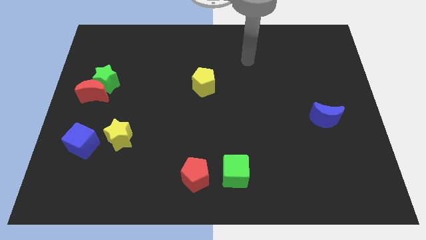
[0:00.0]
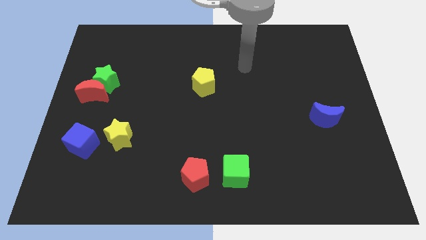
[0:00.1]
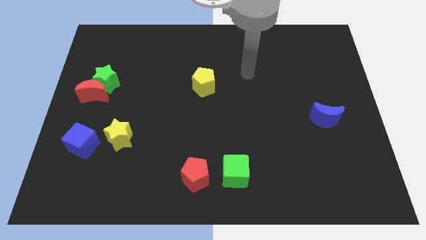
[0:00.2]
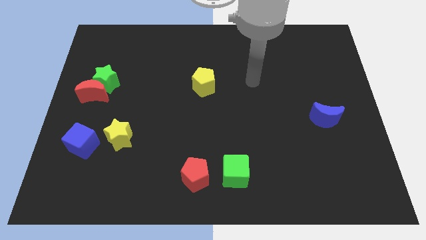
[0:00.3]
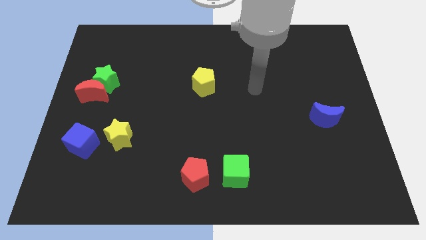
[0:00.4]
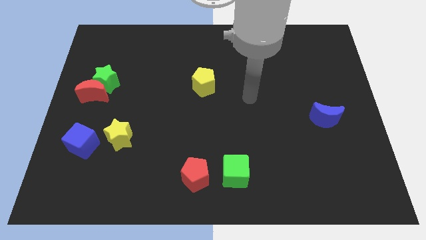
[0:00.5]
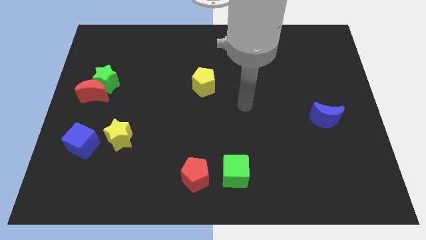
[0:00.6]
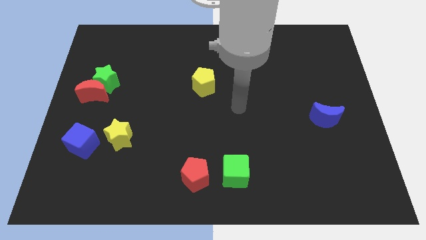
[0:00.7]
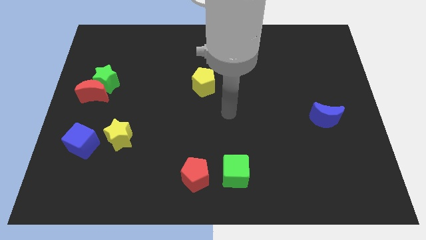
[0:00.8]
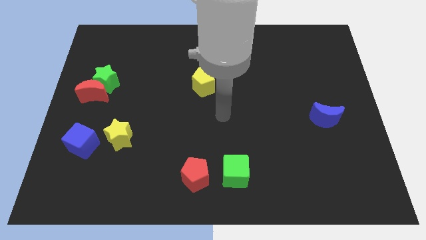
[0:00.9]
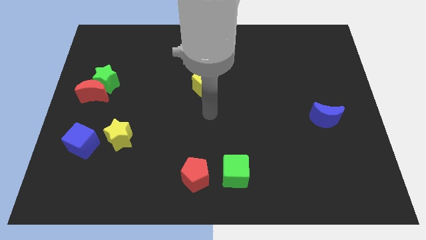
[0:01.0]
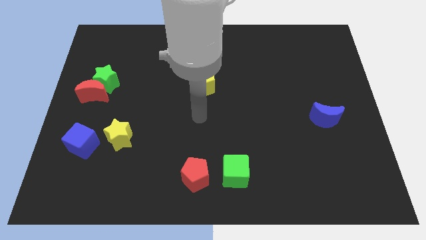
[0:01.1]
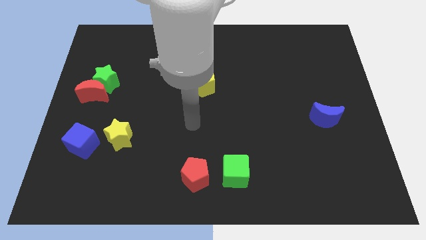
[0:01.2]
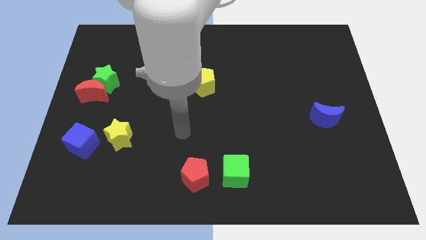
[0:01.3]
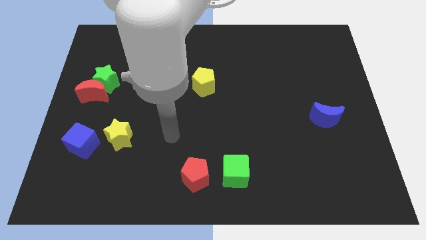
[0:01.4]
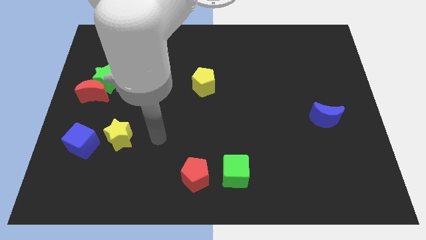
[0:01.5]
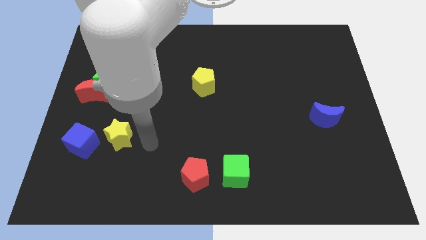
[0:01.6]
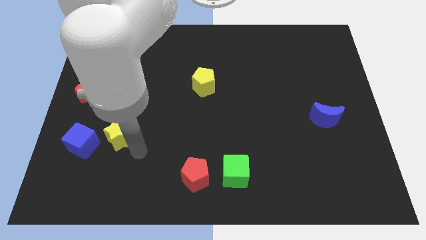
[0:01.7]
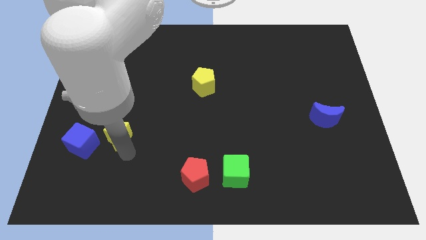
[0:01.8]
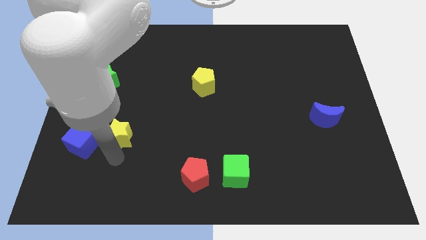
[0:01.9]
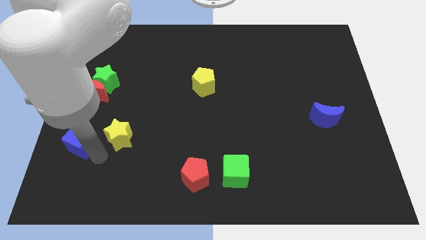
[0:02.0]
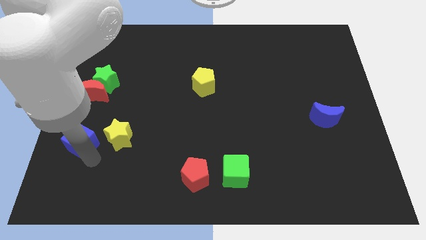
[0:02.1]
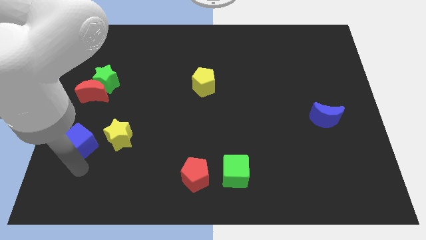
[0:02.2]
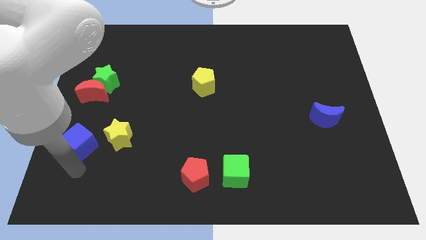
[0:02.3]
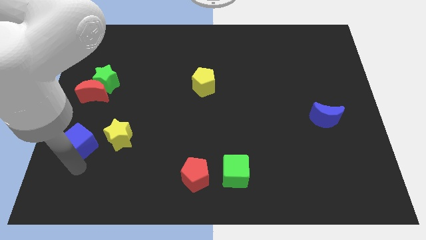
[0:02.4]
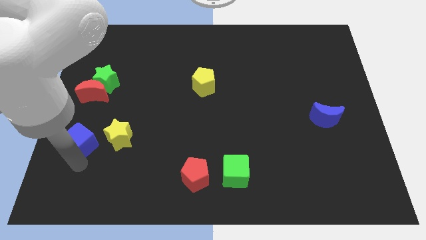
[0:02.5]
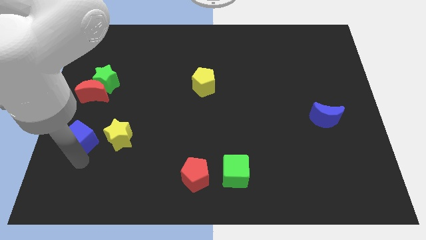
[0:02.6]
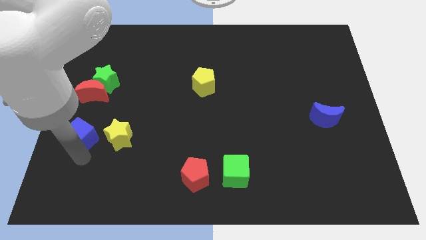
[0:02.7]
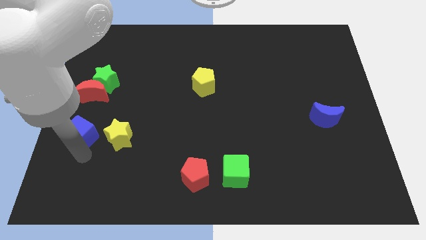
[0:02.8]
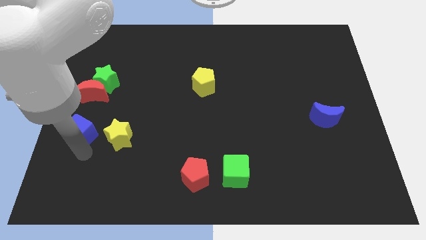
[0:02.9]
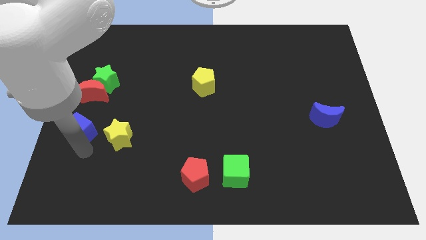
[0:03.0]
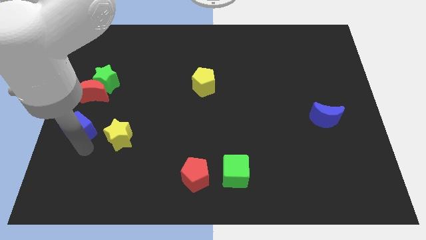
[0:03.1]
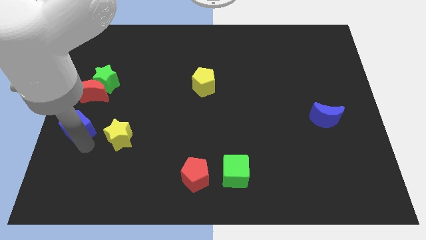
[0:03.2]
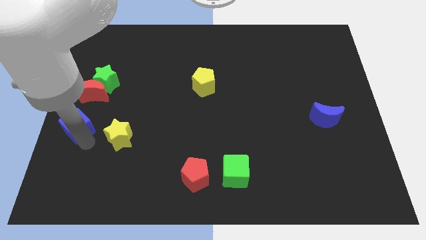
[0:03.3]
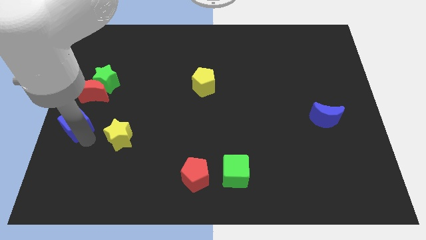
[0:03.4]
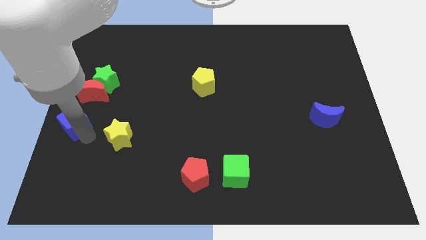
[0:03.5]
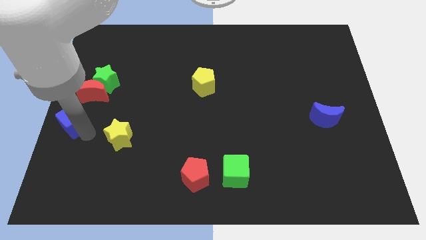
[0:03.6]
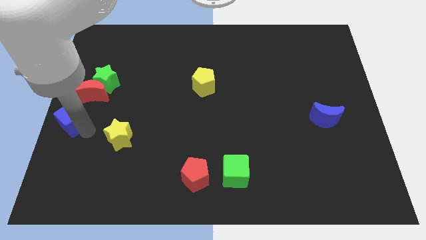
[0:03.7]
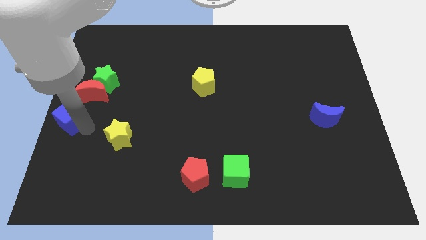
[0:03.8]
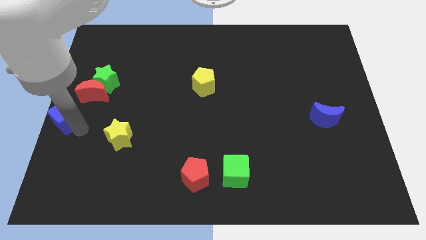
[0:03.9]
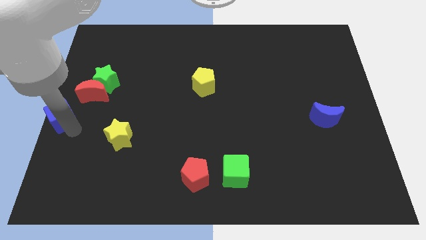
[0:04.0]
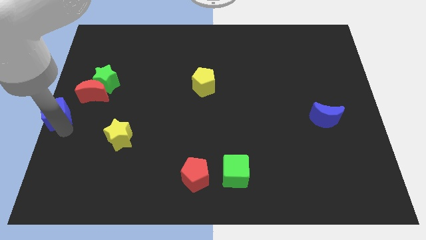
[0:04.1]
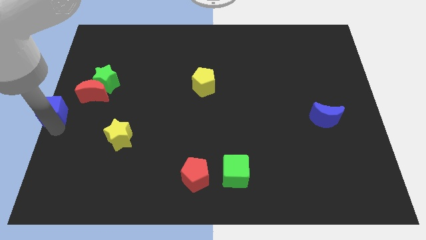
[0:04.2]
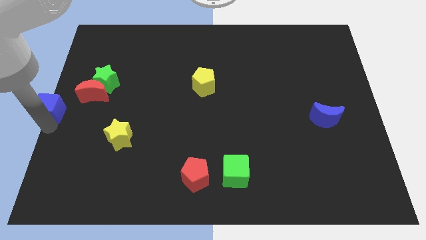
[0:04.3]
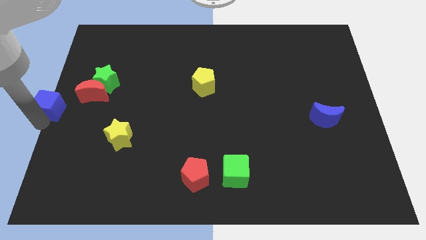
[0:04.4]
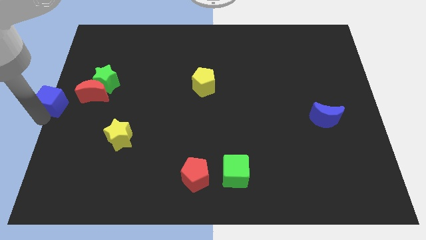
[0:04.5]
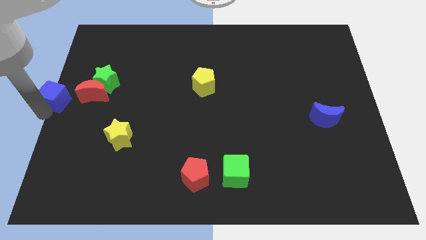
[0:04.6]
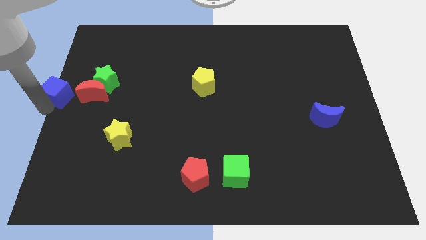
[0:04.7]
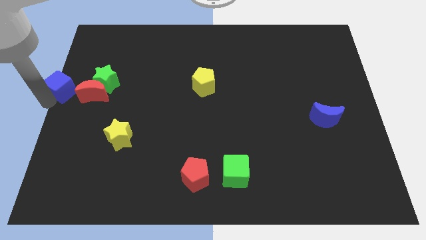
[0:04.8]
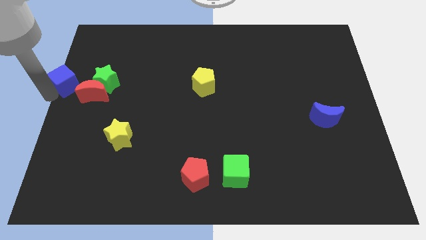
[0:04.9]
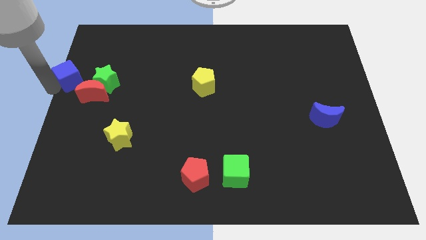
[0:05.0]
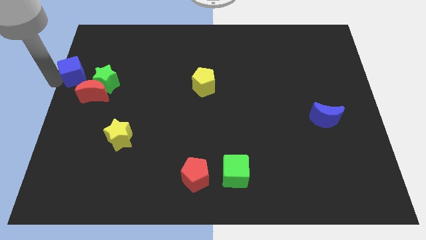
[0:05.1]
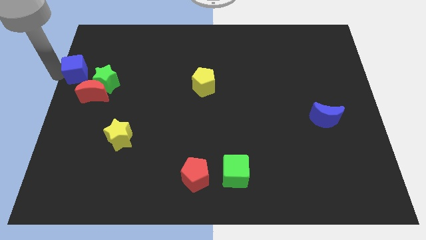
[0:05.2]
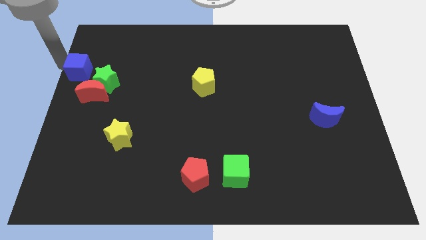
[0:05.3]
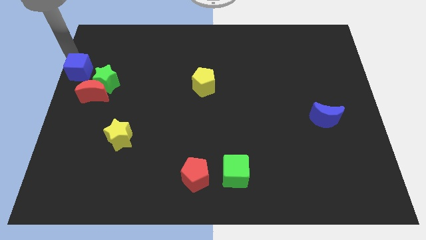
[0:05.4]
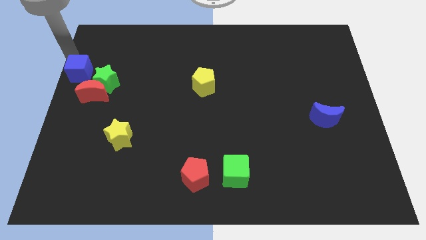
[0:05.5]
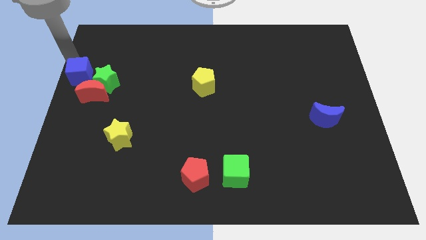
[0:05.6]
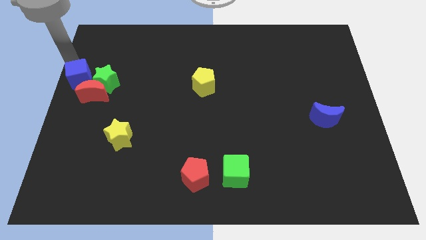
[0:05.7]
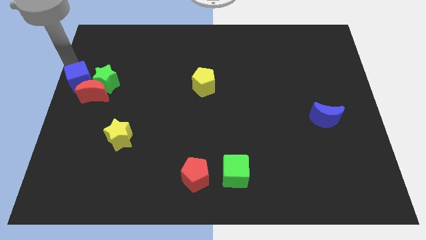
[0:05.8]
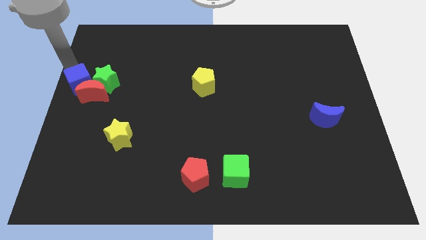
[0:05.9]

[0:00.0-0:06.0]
move the blue cube to the red moon

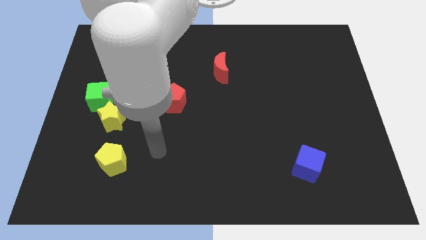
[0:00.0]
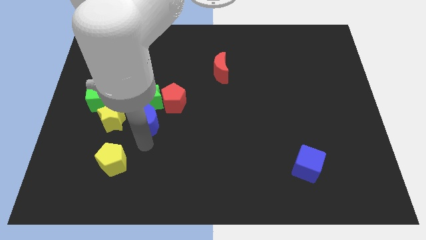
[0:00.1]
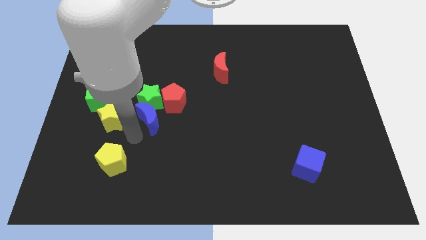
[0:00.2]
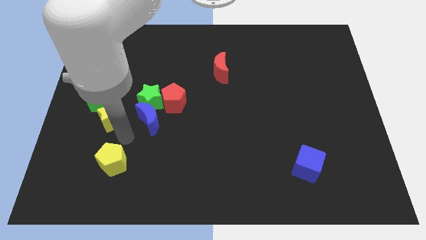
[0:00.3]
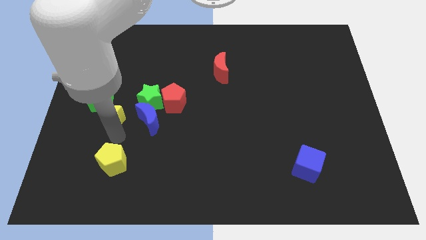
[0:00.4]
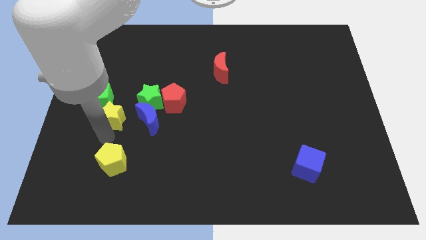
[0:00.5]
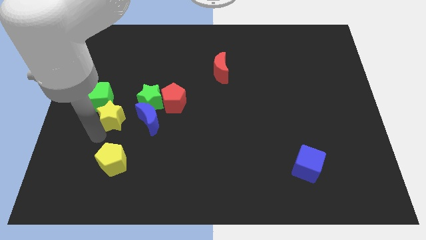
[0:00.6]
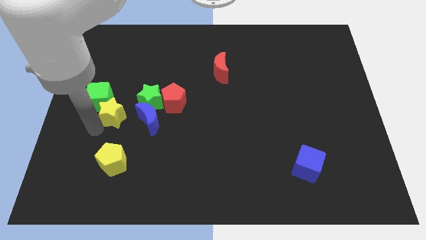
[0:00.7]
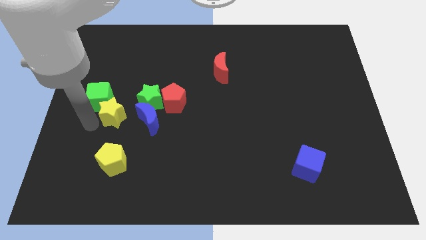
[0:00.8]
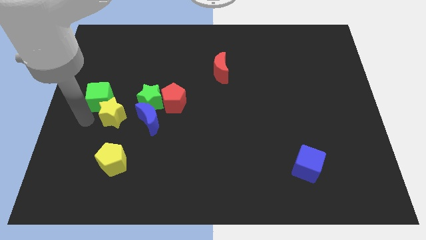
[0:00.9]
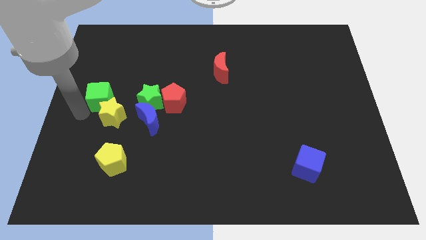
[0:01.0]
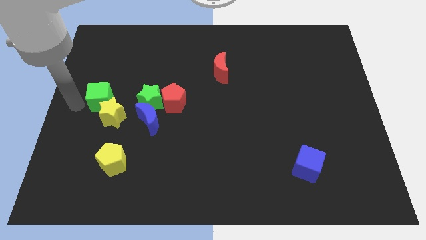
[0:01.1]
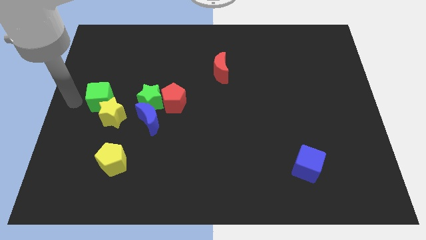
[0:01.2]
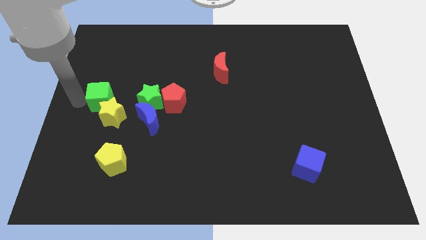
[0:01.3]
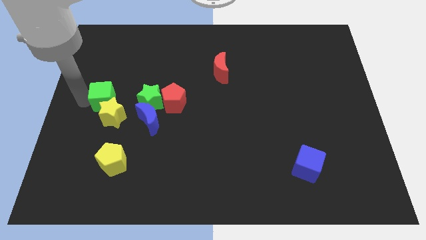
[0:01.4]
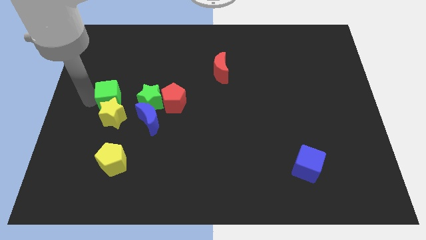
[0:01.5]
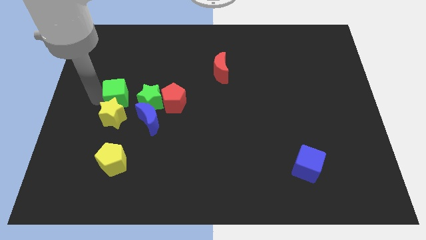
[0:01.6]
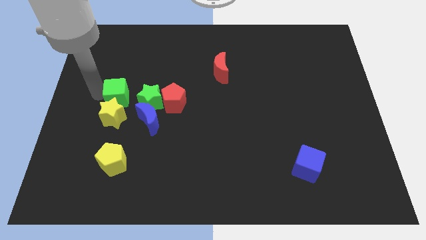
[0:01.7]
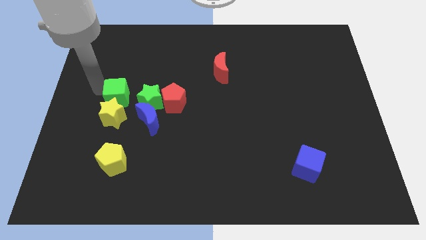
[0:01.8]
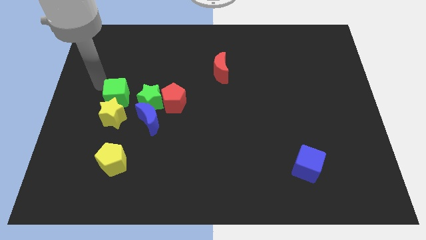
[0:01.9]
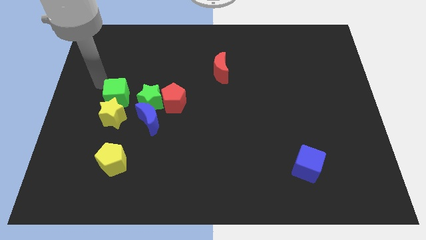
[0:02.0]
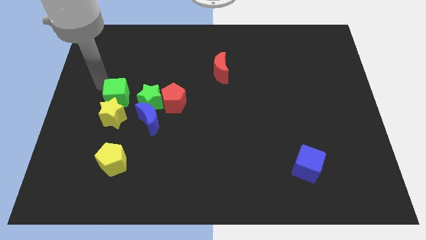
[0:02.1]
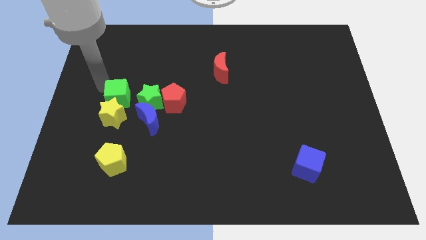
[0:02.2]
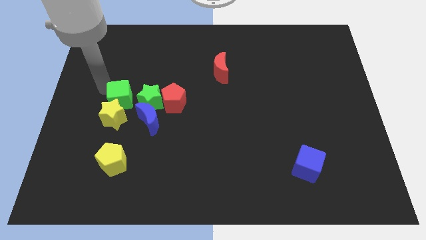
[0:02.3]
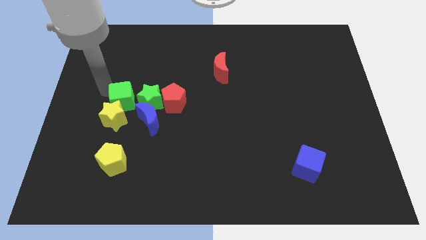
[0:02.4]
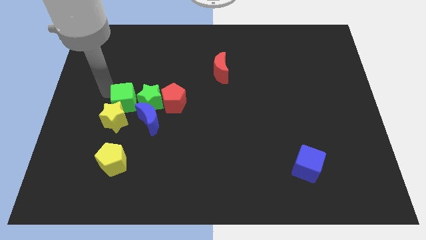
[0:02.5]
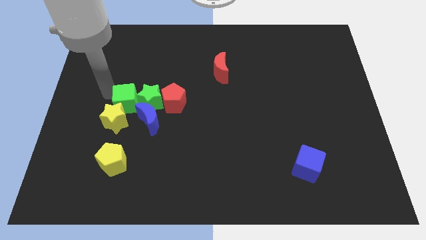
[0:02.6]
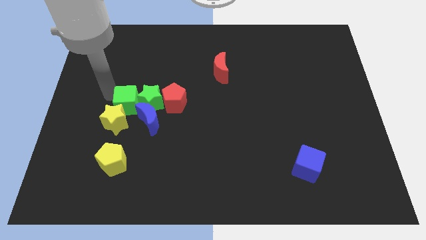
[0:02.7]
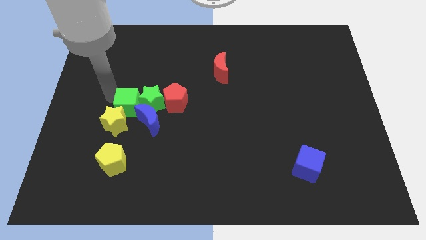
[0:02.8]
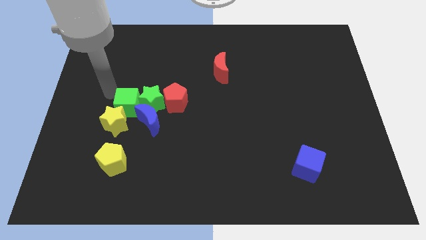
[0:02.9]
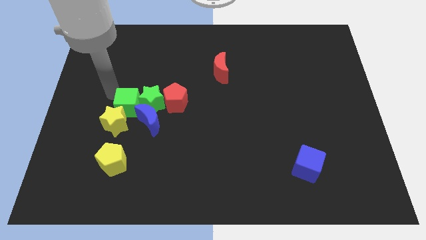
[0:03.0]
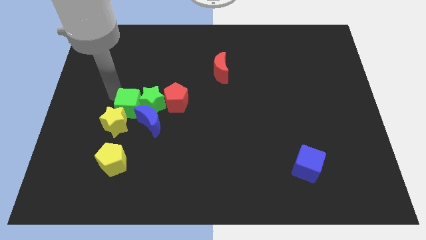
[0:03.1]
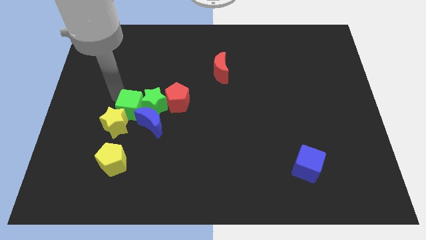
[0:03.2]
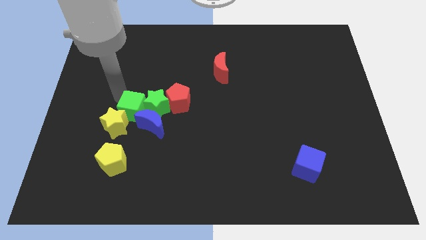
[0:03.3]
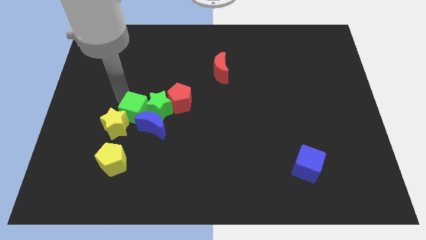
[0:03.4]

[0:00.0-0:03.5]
slide the green cube close to the blue moon
